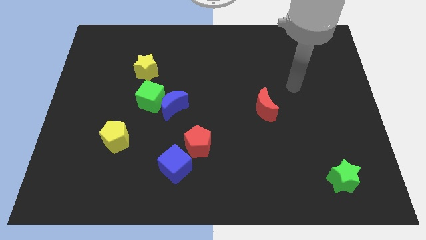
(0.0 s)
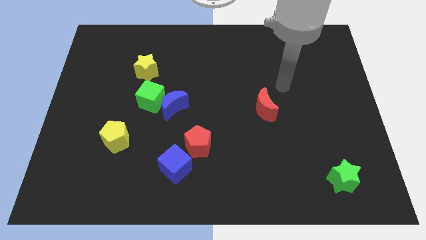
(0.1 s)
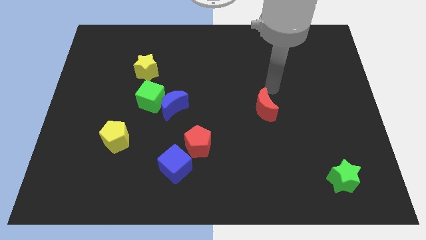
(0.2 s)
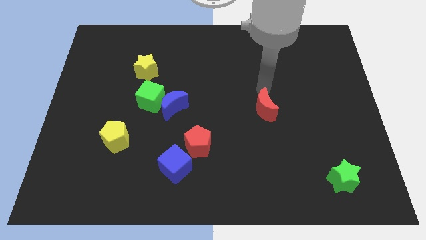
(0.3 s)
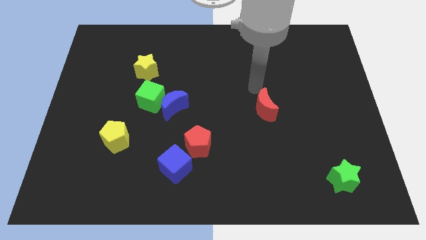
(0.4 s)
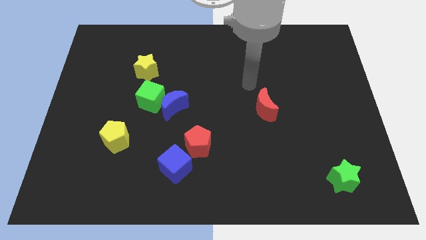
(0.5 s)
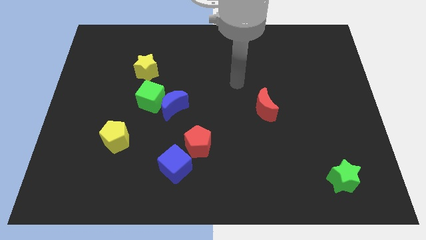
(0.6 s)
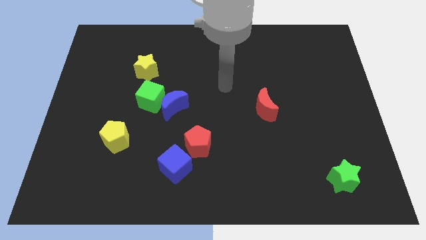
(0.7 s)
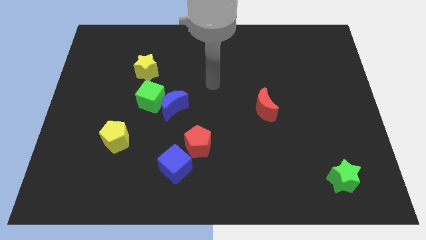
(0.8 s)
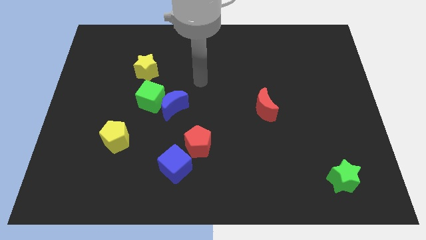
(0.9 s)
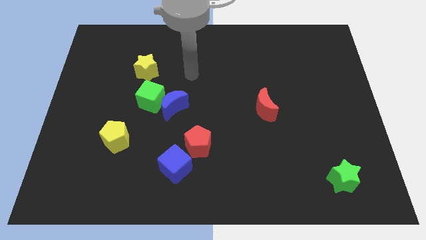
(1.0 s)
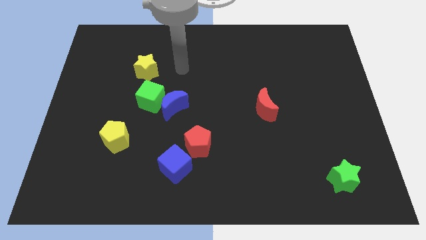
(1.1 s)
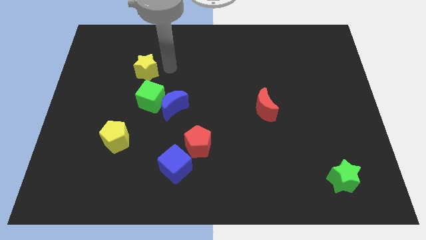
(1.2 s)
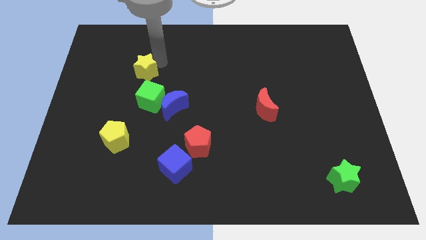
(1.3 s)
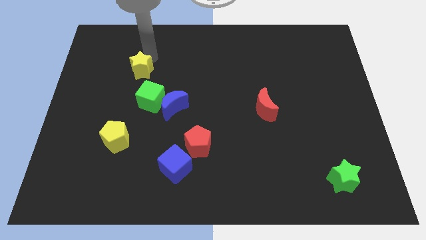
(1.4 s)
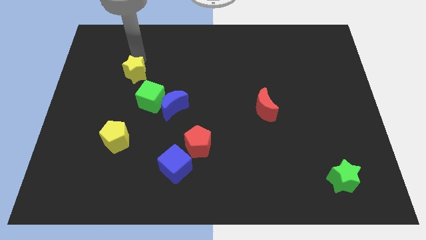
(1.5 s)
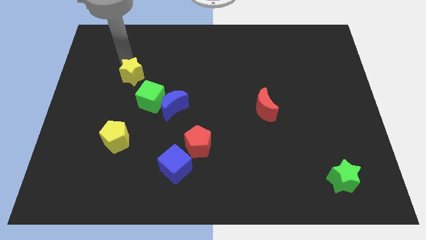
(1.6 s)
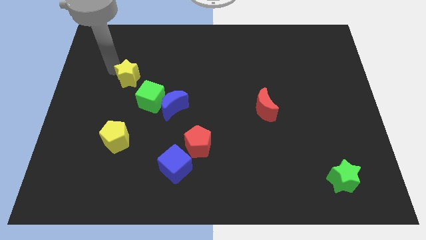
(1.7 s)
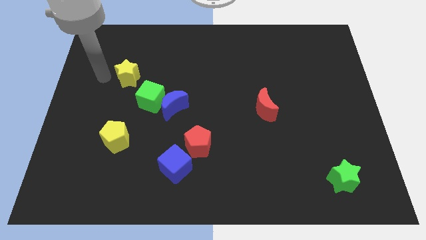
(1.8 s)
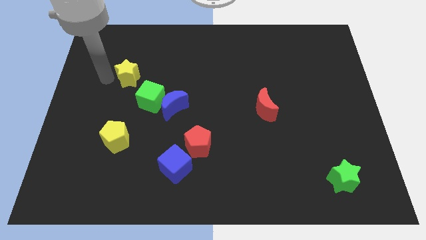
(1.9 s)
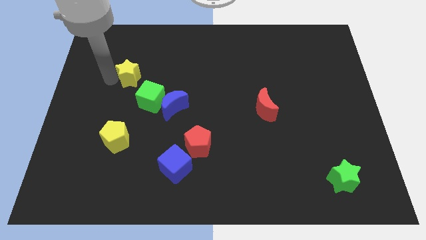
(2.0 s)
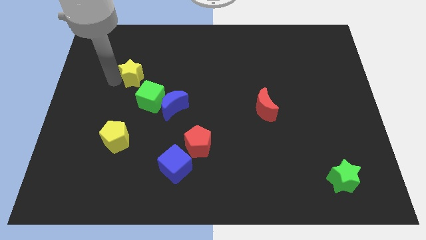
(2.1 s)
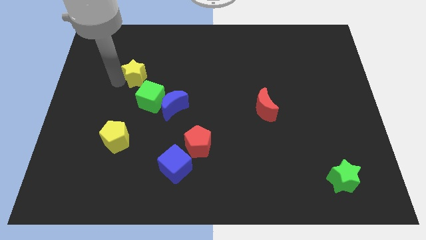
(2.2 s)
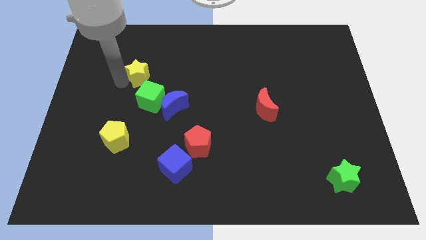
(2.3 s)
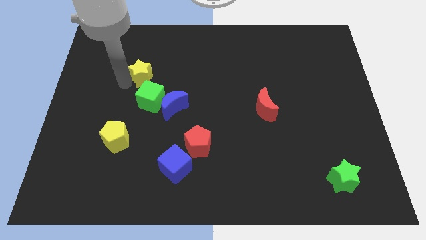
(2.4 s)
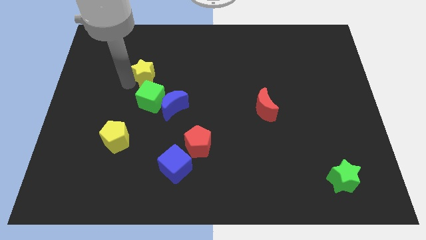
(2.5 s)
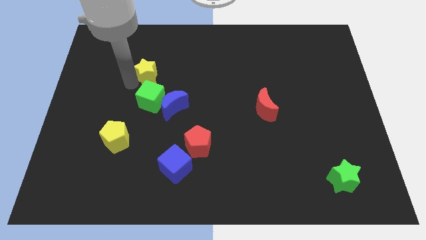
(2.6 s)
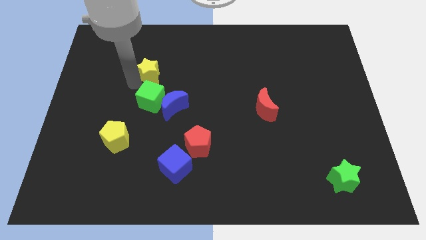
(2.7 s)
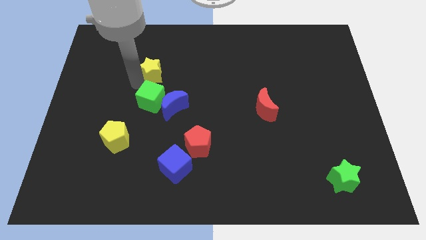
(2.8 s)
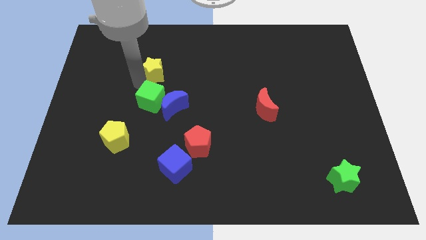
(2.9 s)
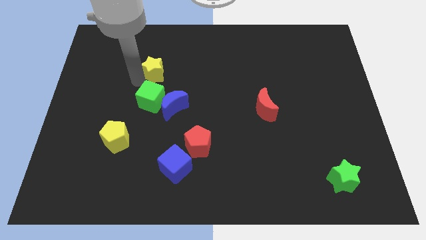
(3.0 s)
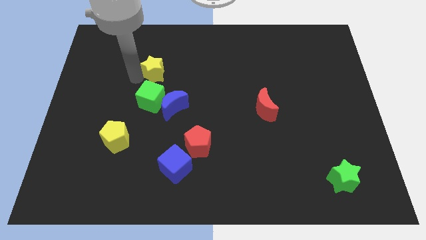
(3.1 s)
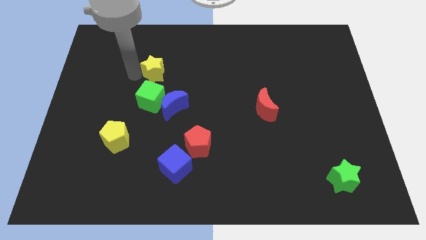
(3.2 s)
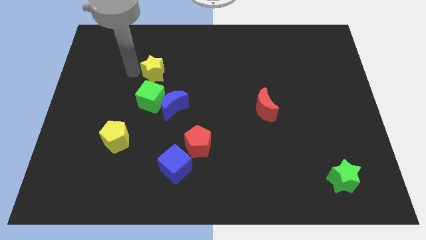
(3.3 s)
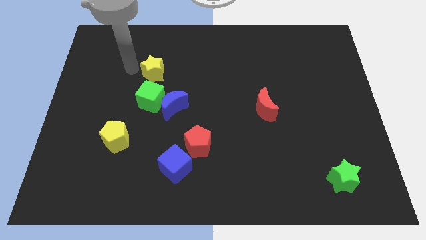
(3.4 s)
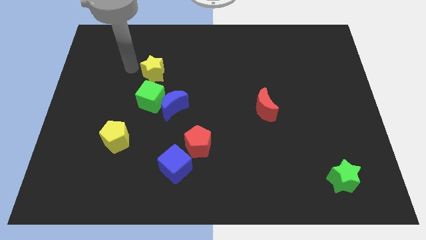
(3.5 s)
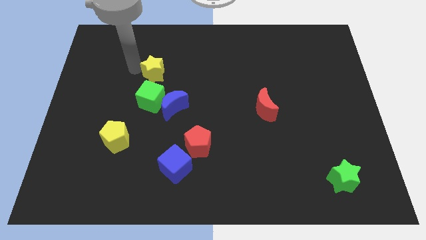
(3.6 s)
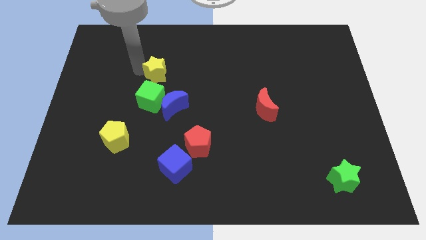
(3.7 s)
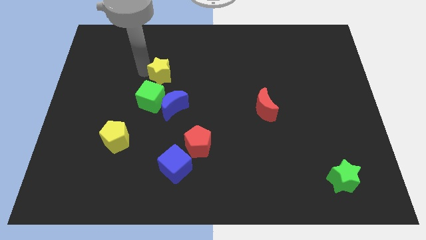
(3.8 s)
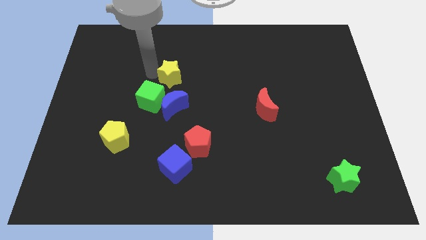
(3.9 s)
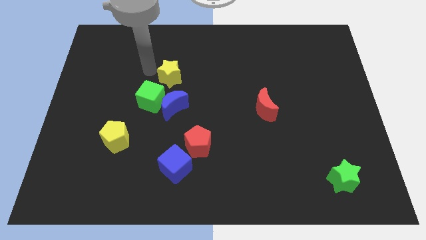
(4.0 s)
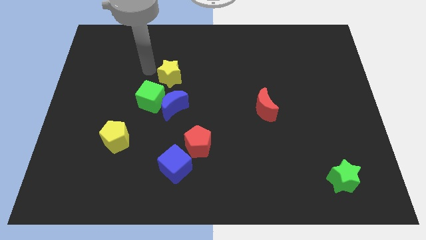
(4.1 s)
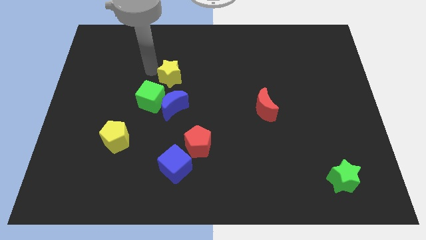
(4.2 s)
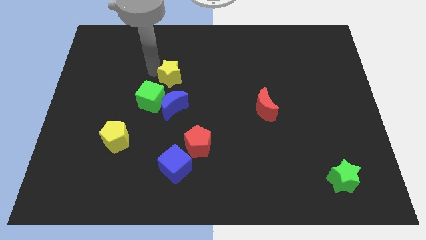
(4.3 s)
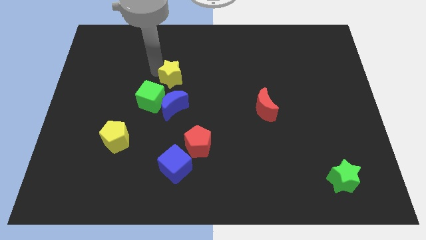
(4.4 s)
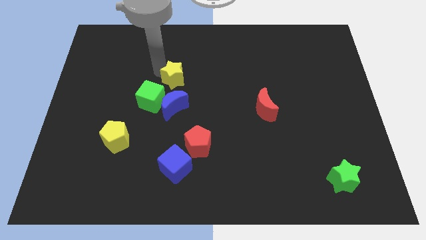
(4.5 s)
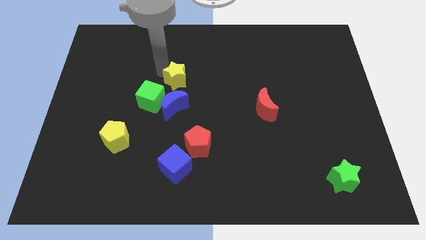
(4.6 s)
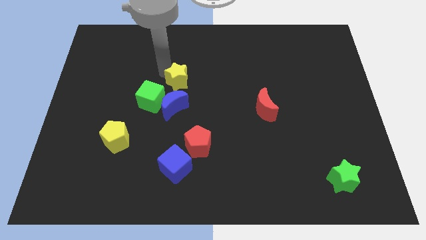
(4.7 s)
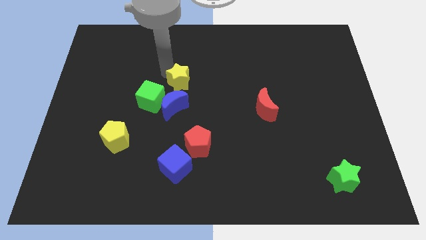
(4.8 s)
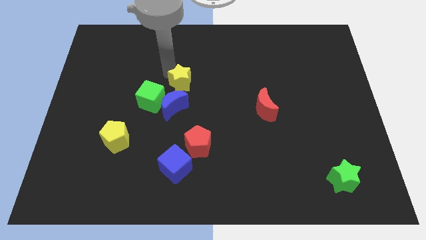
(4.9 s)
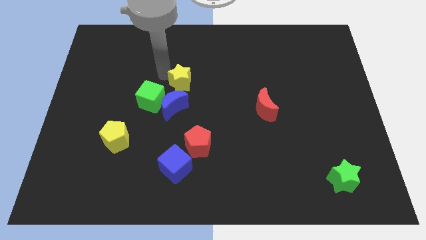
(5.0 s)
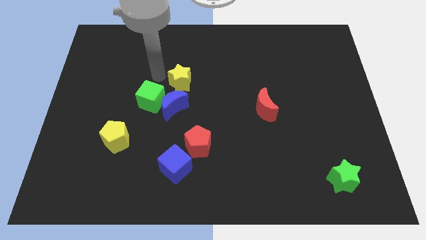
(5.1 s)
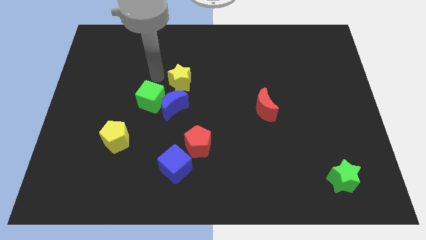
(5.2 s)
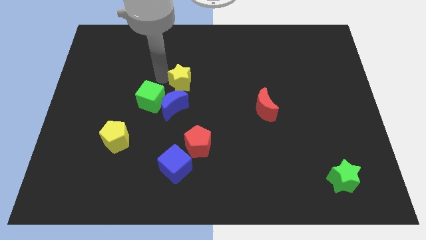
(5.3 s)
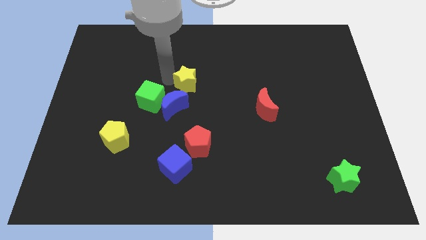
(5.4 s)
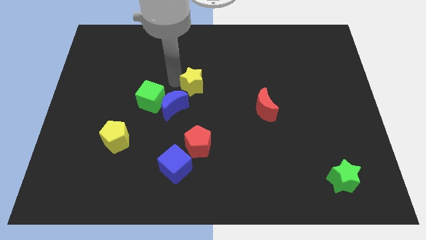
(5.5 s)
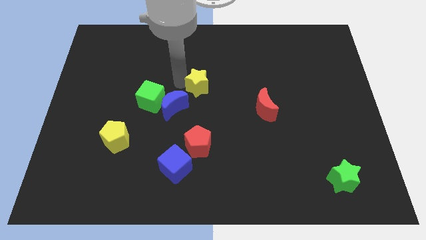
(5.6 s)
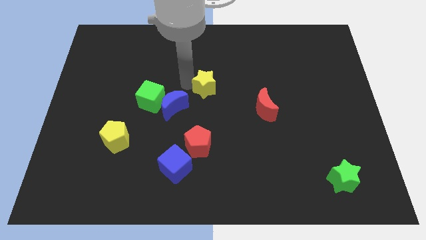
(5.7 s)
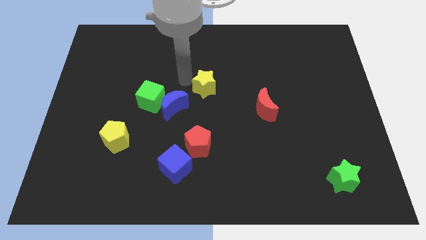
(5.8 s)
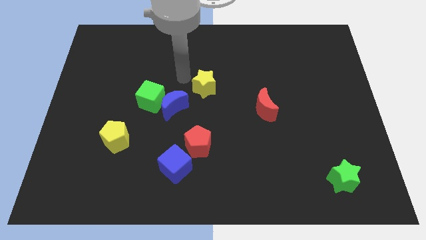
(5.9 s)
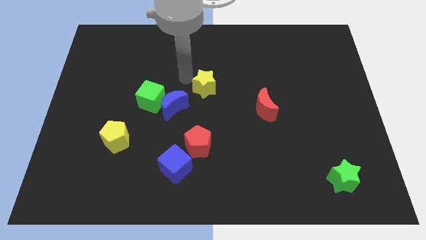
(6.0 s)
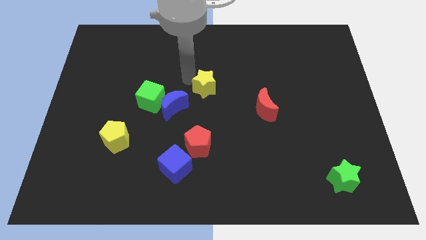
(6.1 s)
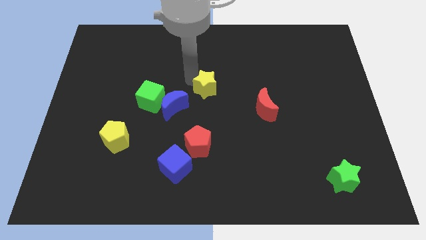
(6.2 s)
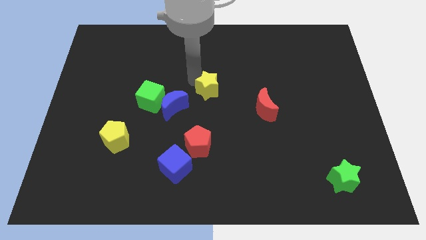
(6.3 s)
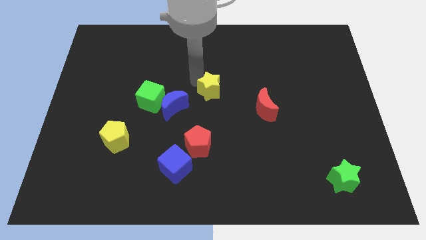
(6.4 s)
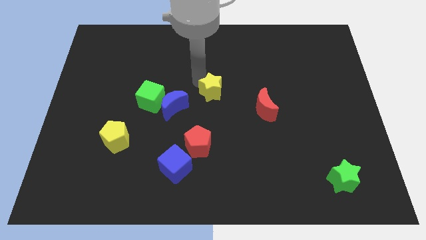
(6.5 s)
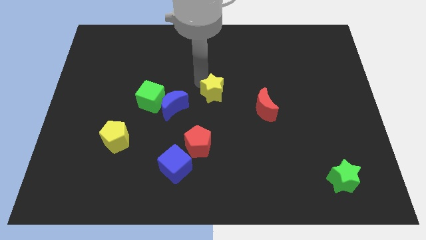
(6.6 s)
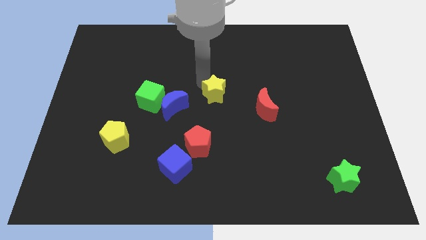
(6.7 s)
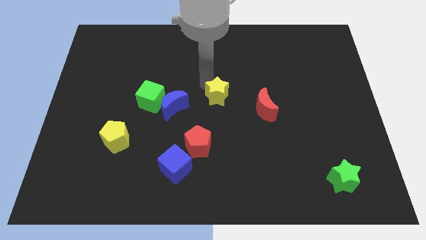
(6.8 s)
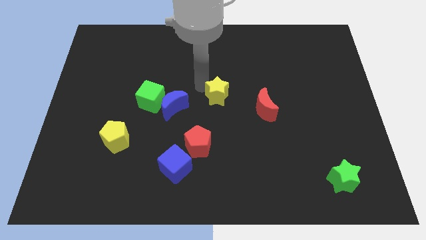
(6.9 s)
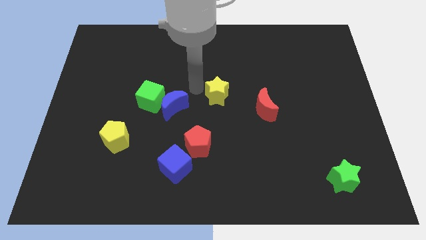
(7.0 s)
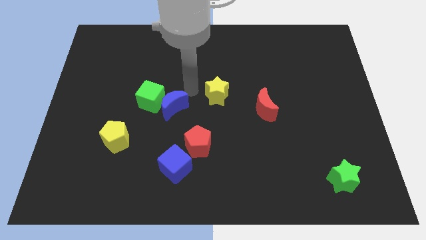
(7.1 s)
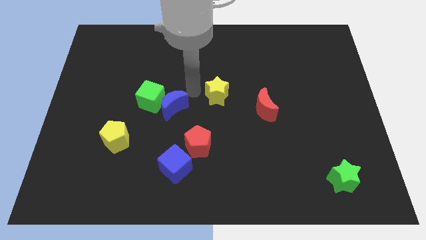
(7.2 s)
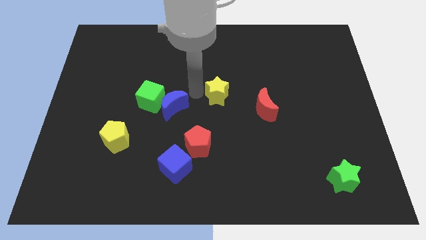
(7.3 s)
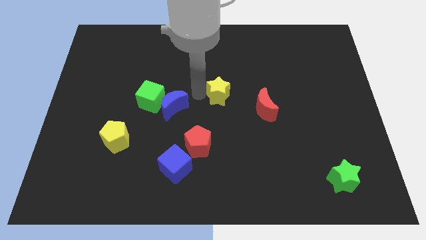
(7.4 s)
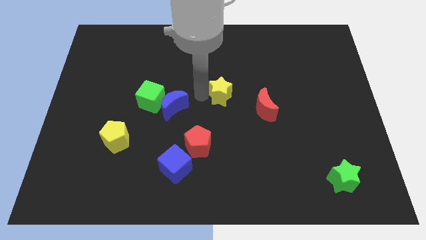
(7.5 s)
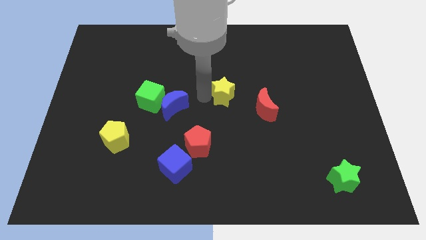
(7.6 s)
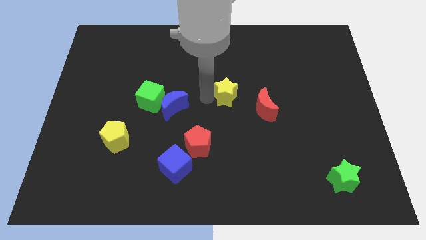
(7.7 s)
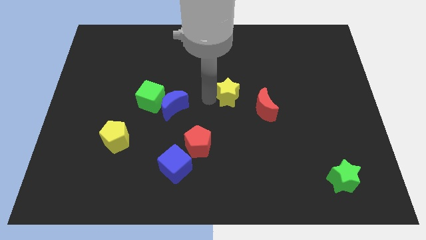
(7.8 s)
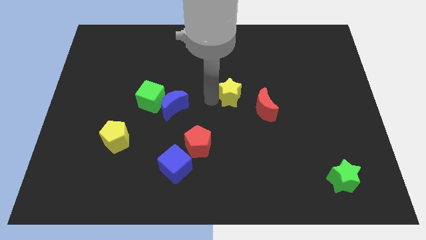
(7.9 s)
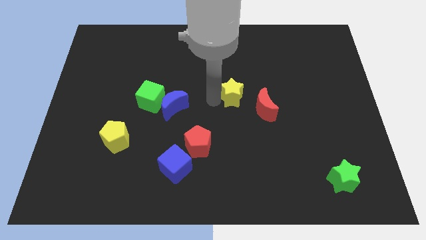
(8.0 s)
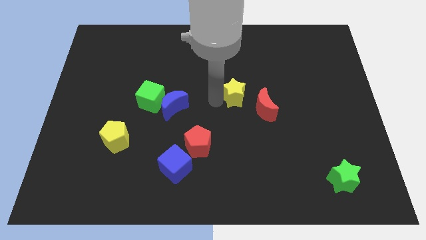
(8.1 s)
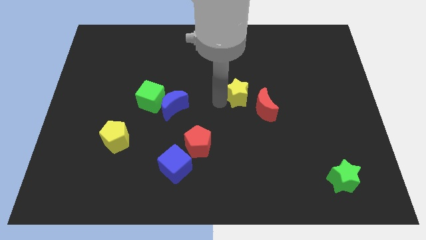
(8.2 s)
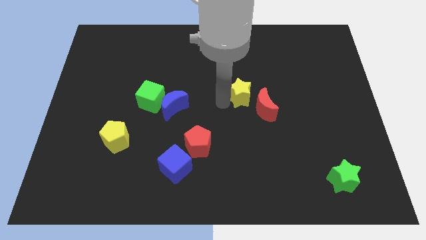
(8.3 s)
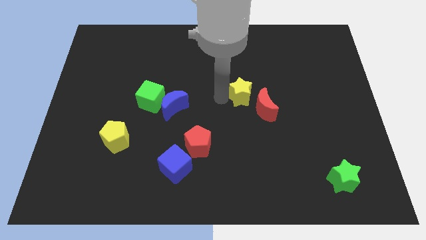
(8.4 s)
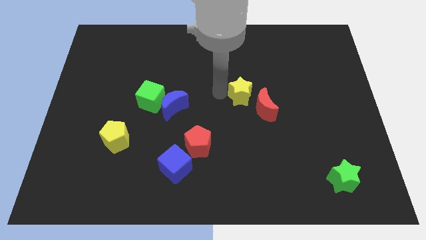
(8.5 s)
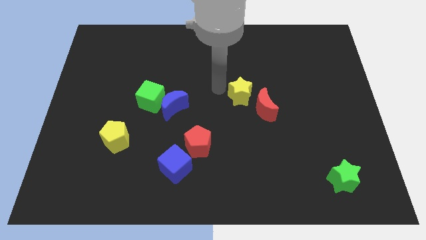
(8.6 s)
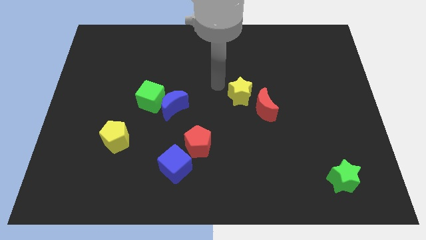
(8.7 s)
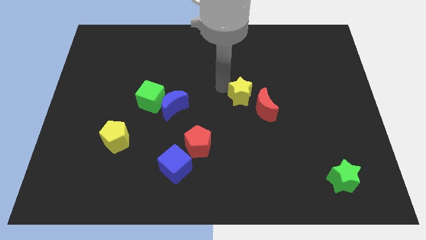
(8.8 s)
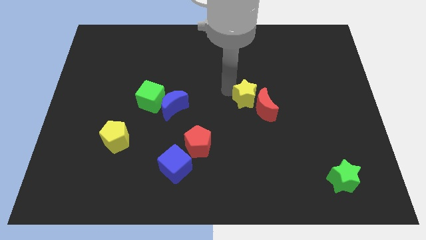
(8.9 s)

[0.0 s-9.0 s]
put the yellow star towards the red moon
